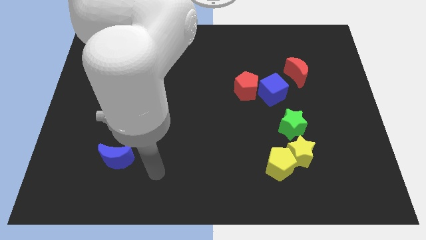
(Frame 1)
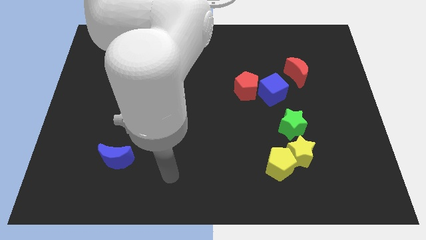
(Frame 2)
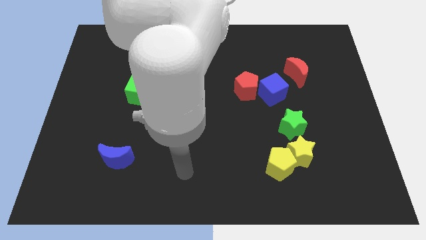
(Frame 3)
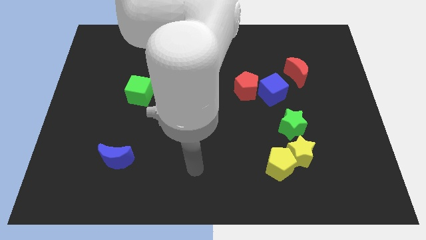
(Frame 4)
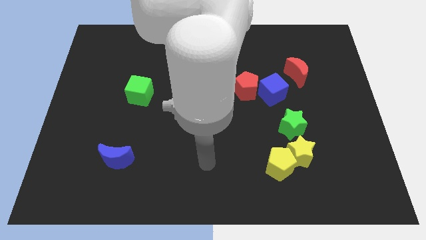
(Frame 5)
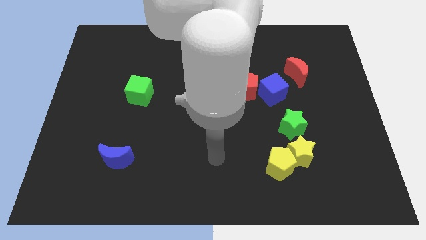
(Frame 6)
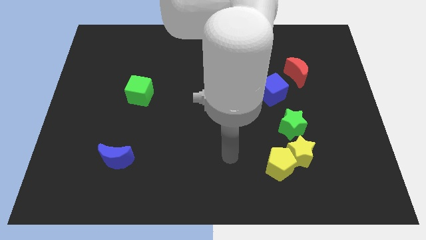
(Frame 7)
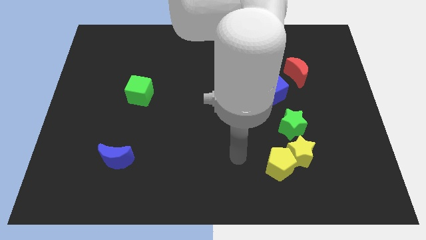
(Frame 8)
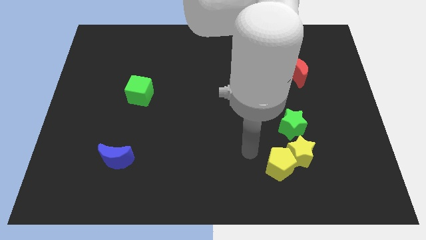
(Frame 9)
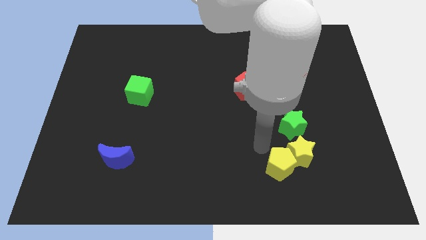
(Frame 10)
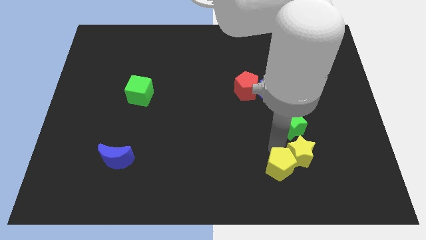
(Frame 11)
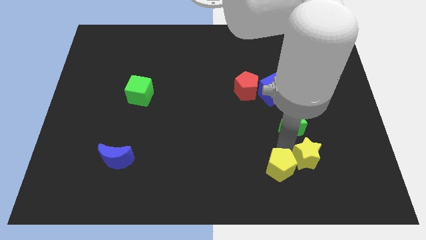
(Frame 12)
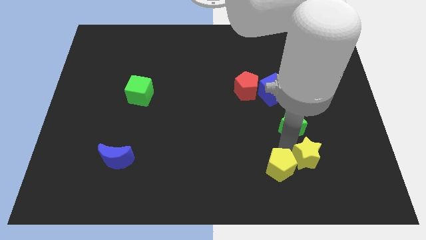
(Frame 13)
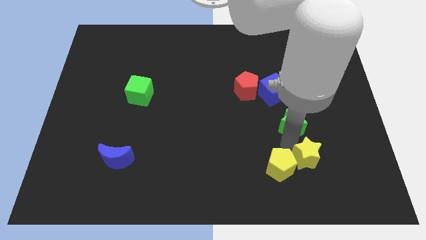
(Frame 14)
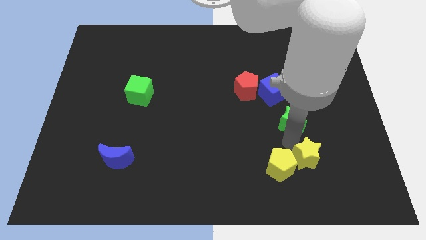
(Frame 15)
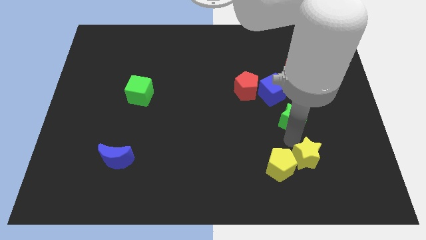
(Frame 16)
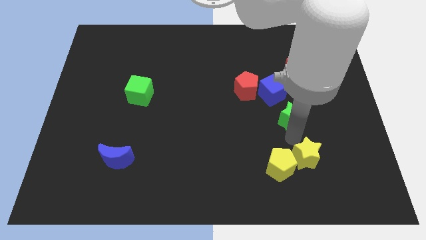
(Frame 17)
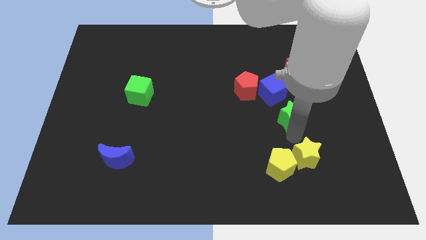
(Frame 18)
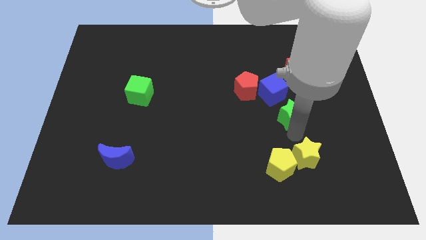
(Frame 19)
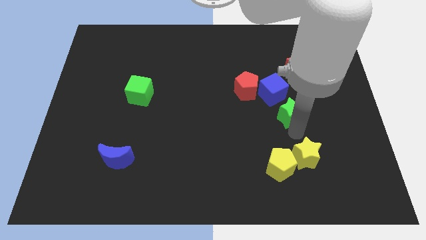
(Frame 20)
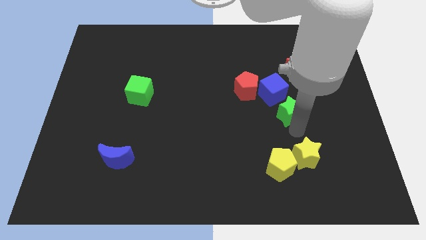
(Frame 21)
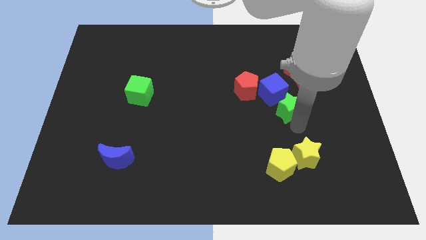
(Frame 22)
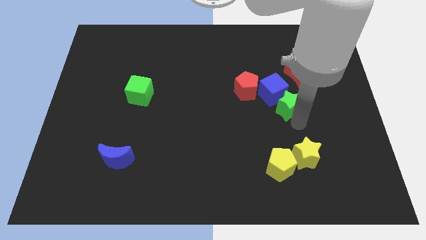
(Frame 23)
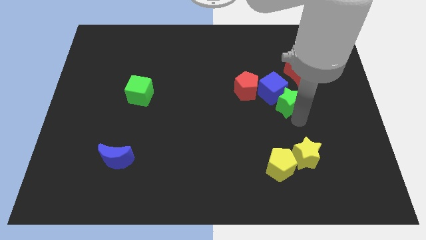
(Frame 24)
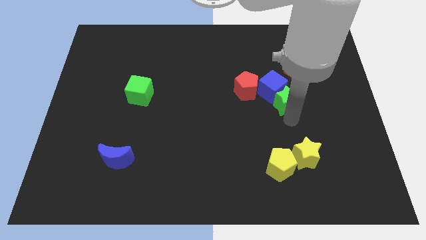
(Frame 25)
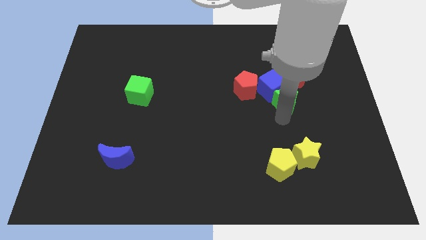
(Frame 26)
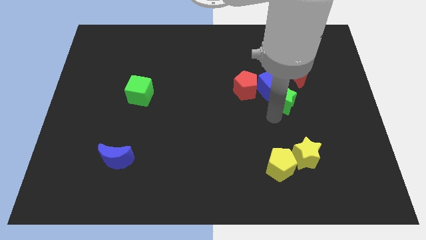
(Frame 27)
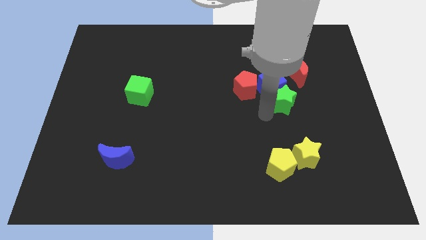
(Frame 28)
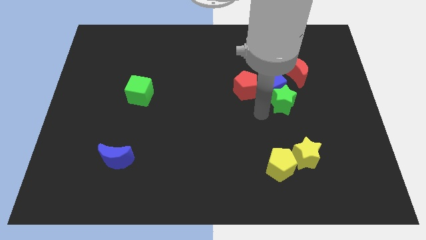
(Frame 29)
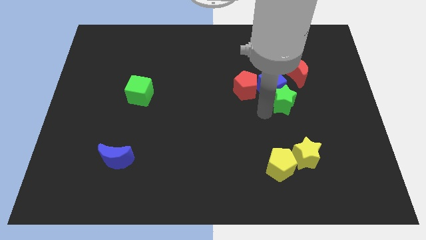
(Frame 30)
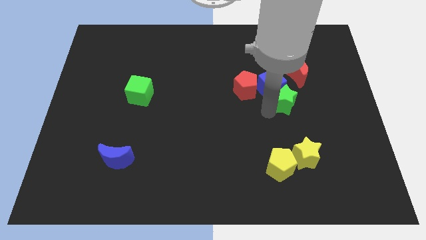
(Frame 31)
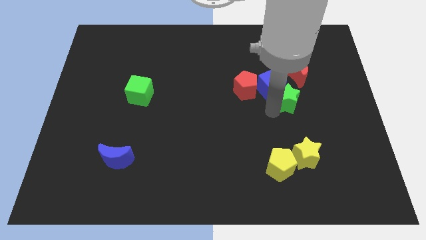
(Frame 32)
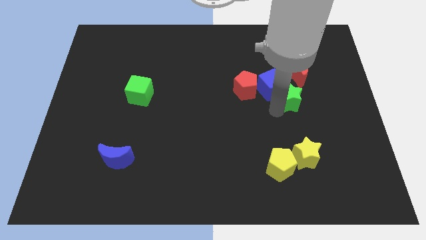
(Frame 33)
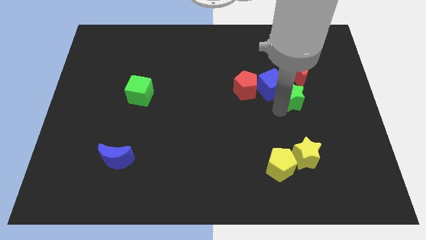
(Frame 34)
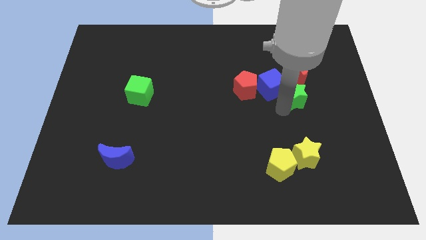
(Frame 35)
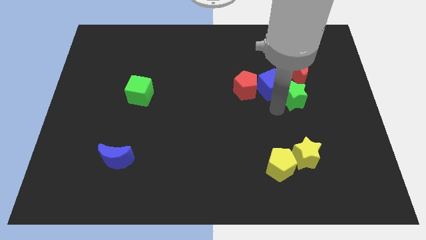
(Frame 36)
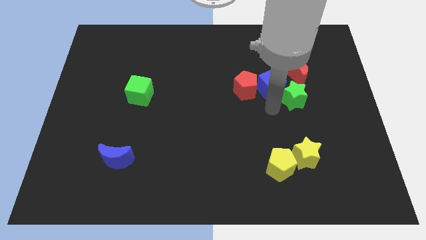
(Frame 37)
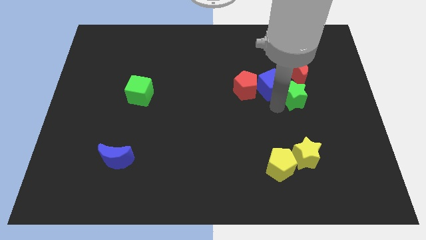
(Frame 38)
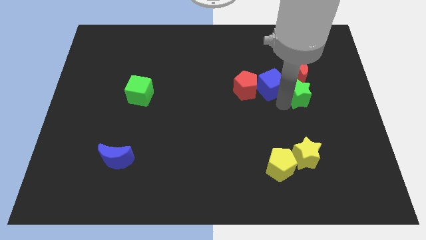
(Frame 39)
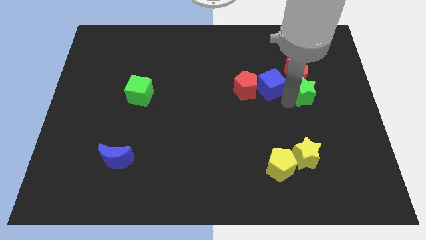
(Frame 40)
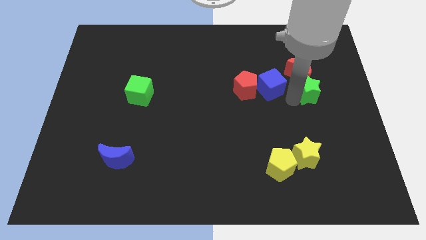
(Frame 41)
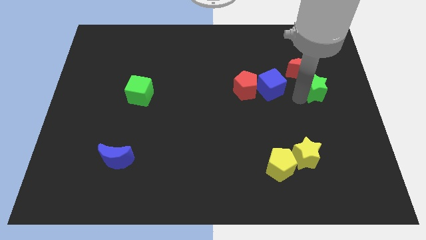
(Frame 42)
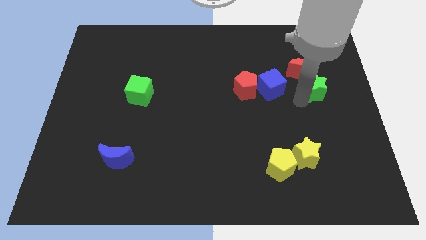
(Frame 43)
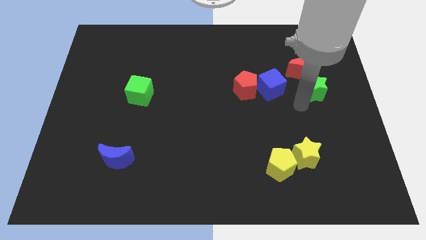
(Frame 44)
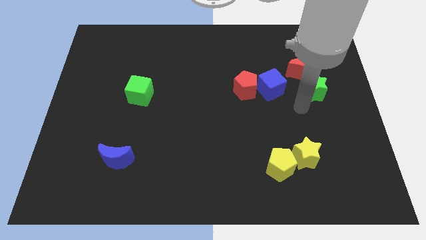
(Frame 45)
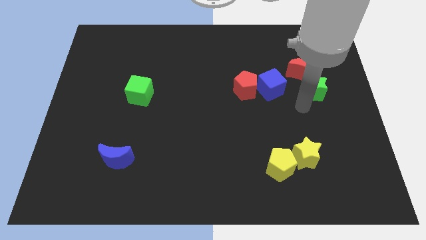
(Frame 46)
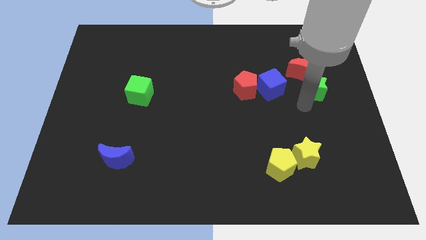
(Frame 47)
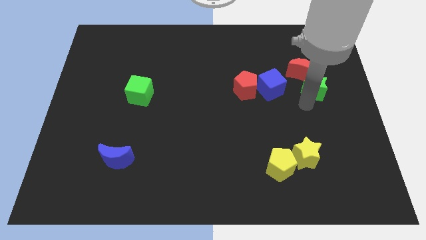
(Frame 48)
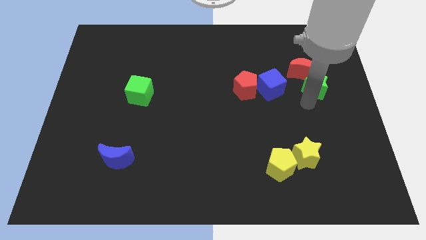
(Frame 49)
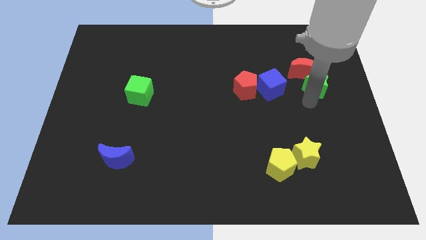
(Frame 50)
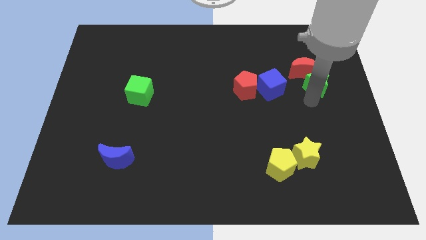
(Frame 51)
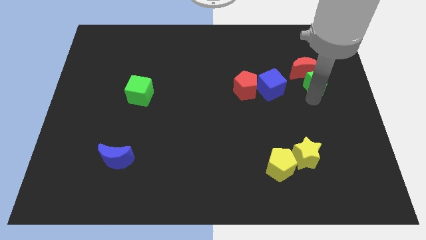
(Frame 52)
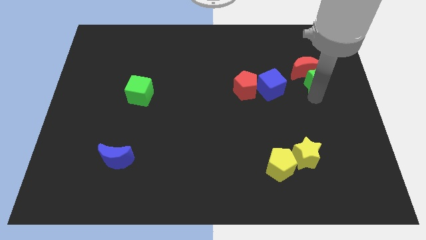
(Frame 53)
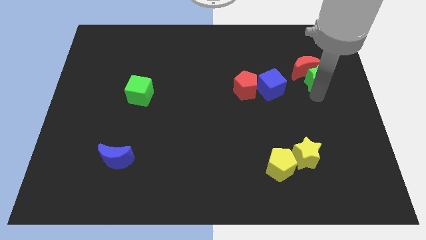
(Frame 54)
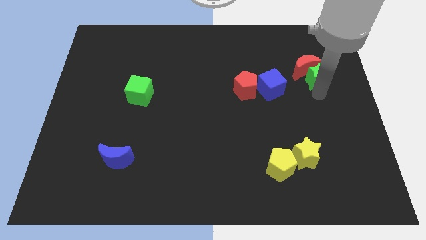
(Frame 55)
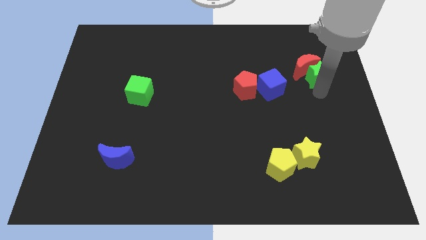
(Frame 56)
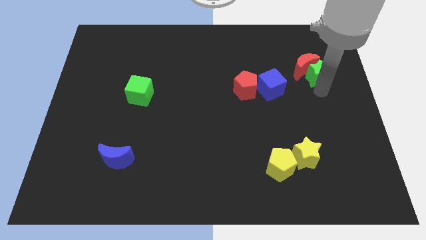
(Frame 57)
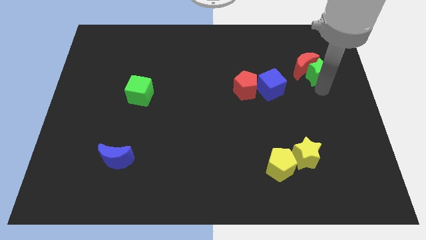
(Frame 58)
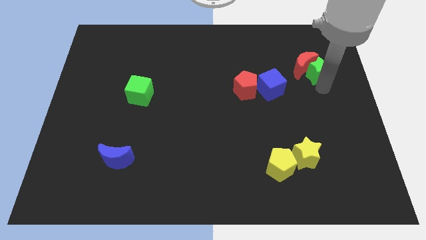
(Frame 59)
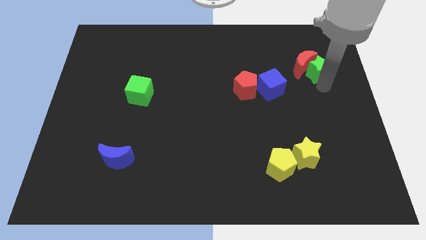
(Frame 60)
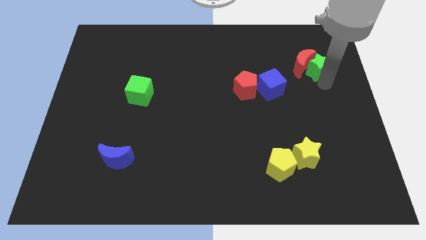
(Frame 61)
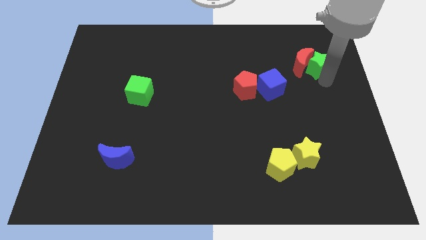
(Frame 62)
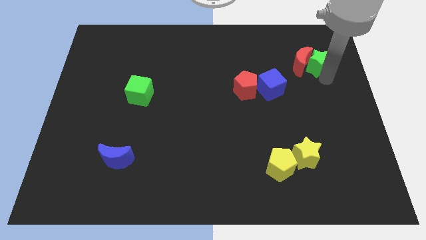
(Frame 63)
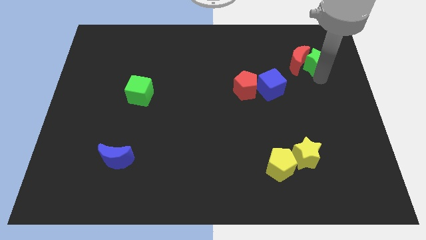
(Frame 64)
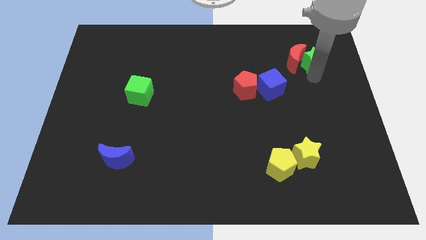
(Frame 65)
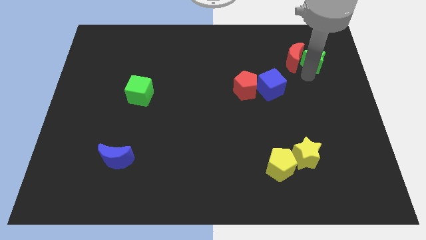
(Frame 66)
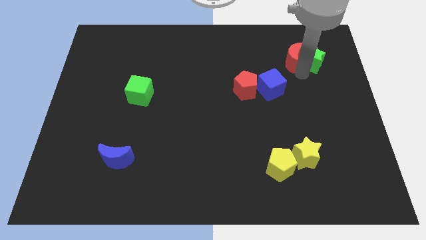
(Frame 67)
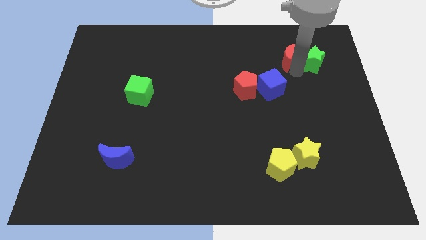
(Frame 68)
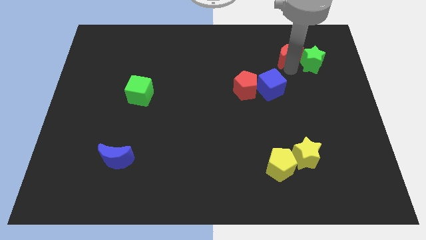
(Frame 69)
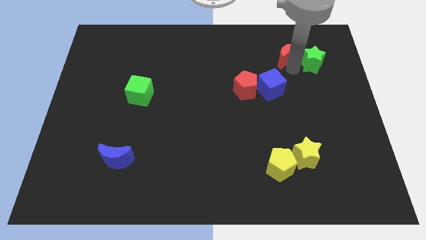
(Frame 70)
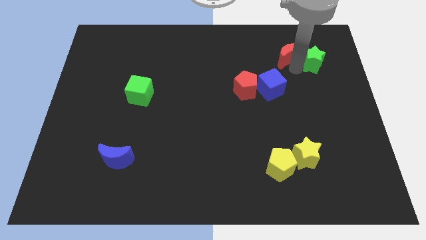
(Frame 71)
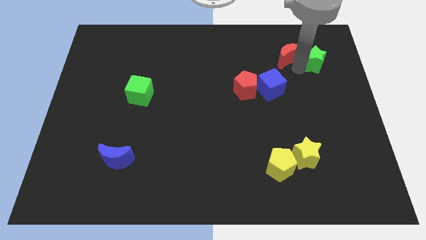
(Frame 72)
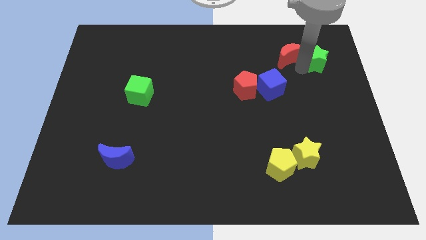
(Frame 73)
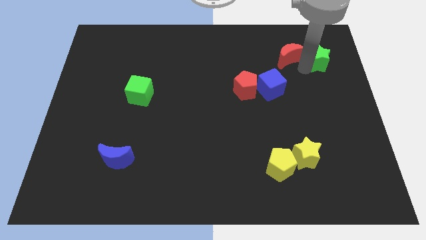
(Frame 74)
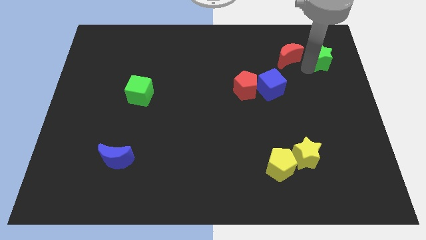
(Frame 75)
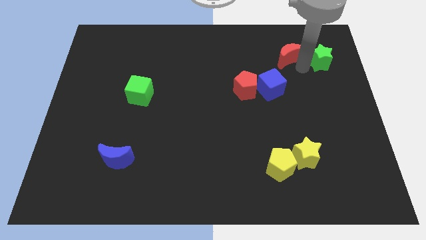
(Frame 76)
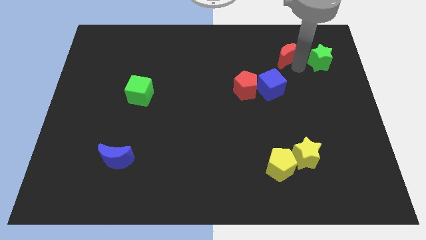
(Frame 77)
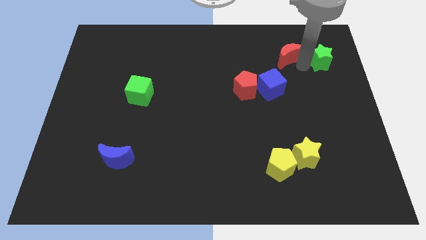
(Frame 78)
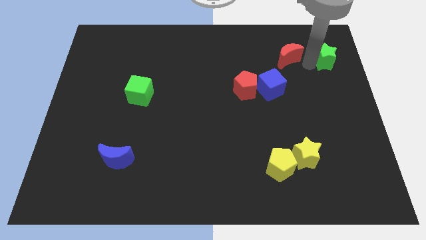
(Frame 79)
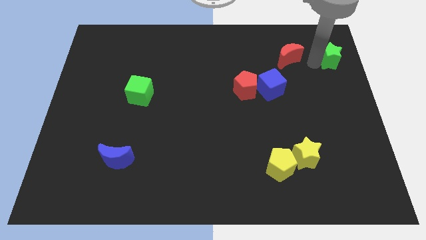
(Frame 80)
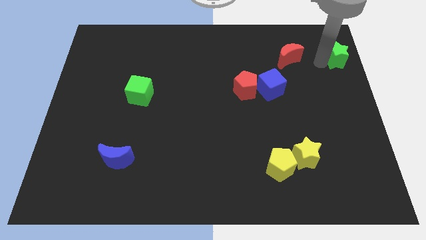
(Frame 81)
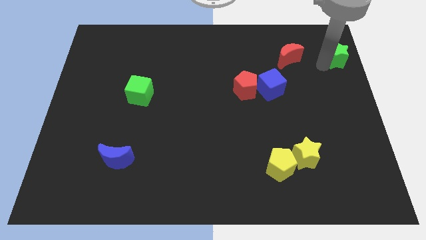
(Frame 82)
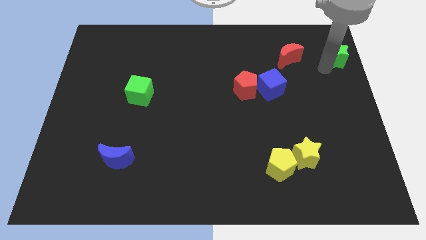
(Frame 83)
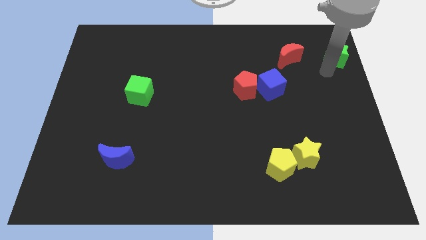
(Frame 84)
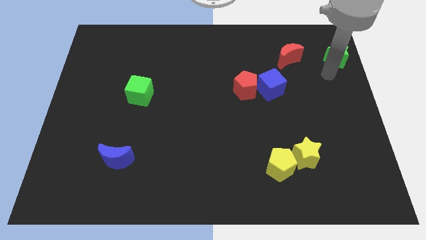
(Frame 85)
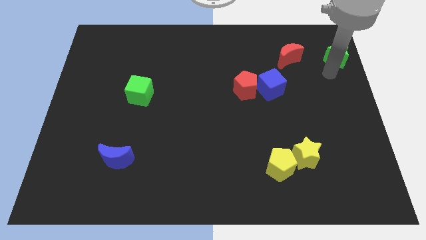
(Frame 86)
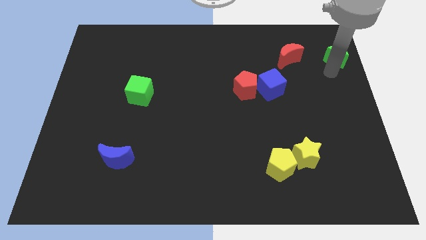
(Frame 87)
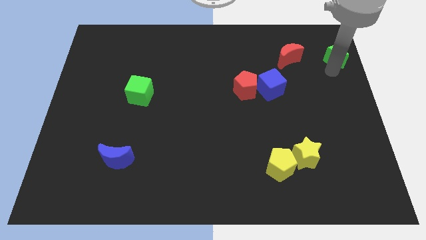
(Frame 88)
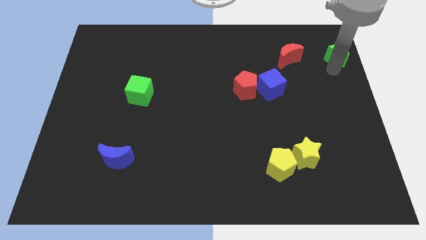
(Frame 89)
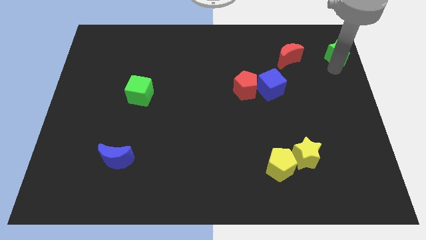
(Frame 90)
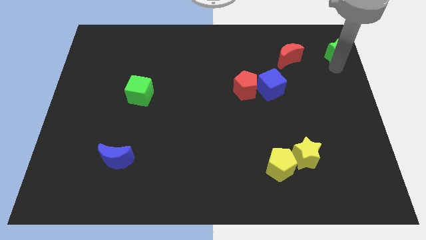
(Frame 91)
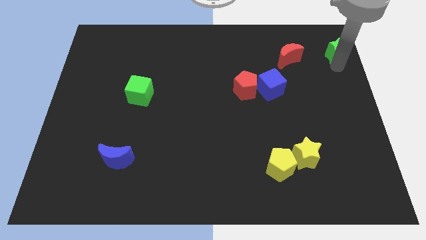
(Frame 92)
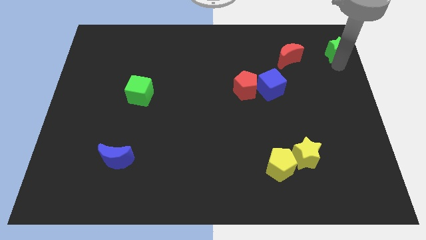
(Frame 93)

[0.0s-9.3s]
move the green star to the top right of the board
